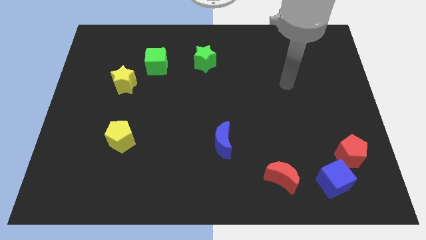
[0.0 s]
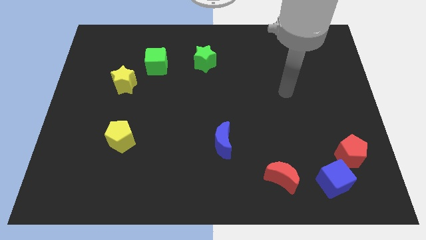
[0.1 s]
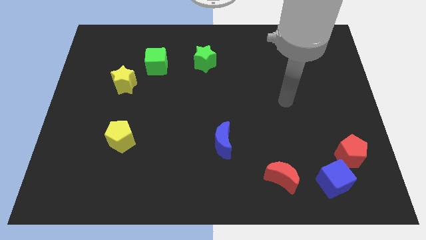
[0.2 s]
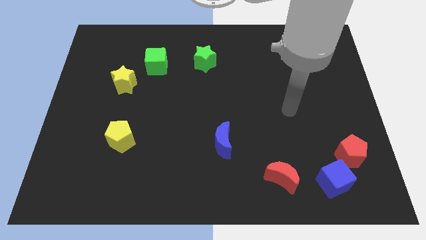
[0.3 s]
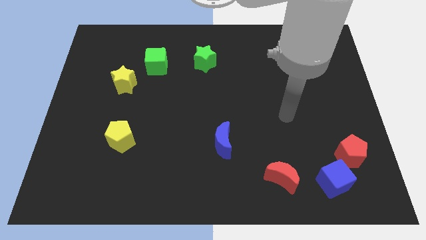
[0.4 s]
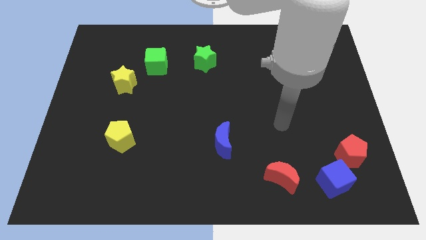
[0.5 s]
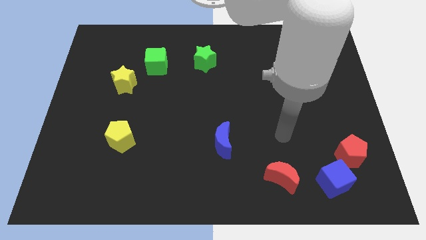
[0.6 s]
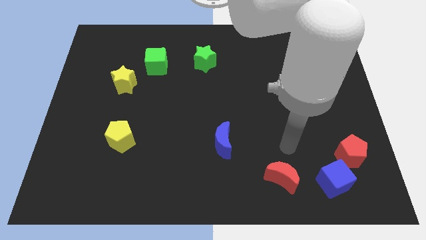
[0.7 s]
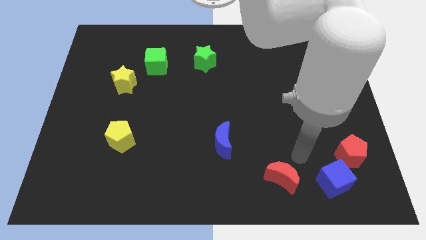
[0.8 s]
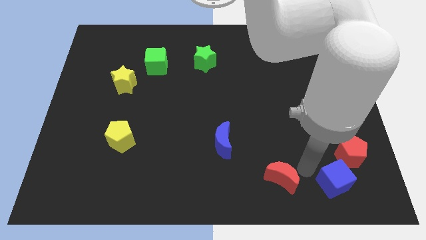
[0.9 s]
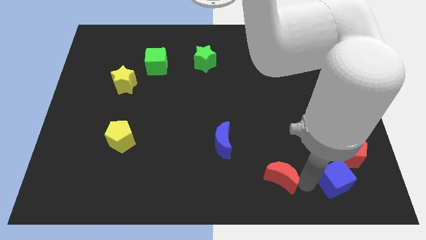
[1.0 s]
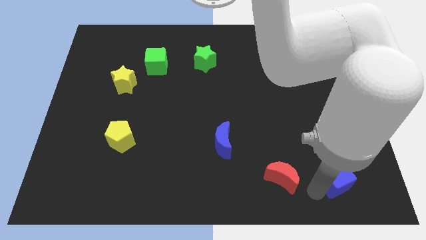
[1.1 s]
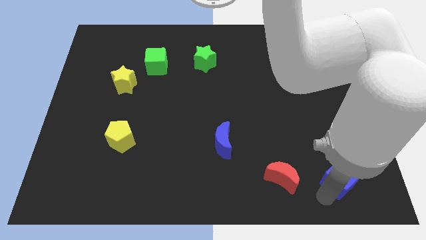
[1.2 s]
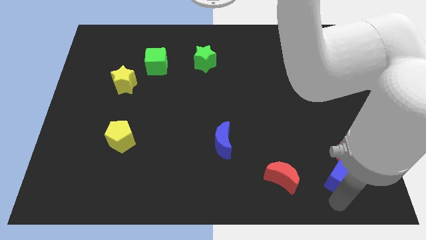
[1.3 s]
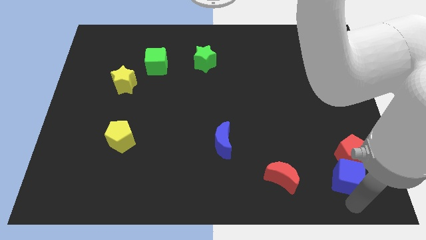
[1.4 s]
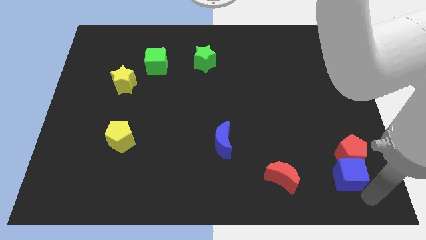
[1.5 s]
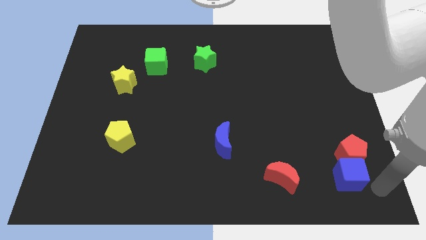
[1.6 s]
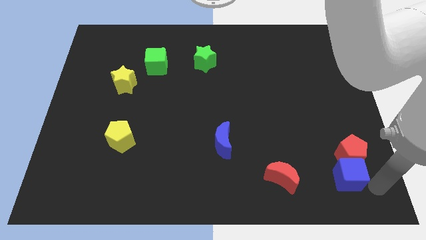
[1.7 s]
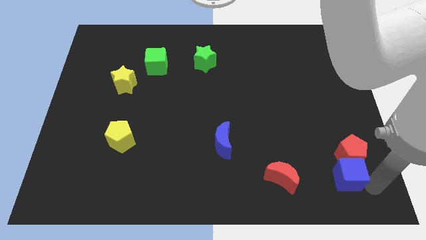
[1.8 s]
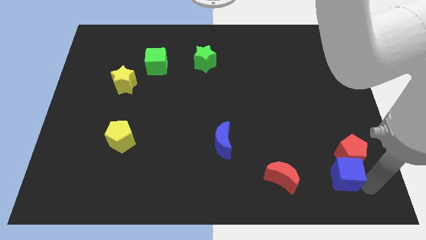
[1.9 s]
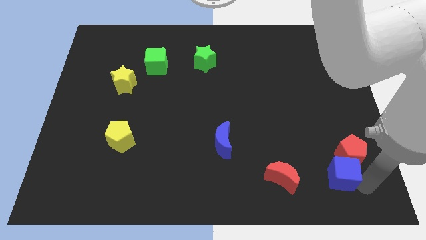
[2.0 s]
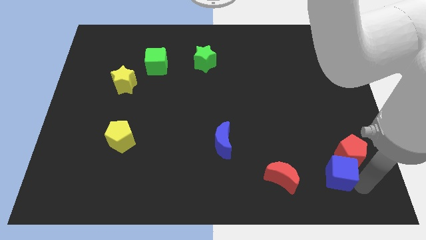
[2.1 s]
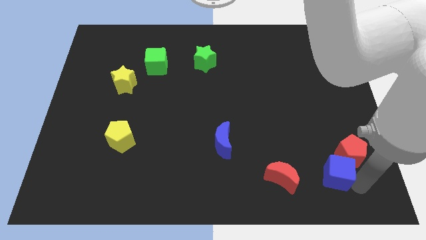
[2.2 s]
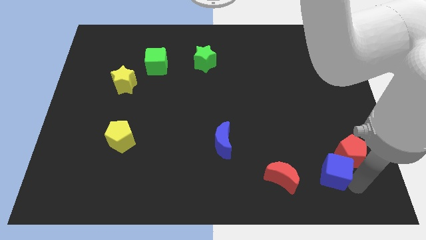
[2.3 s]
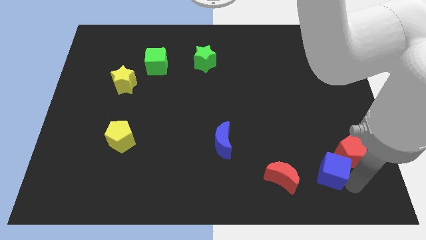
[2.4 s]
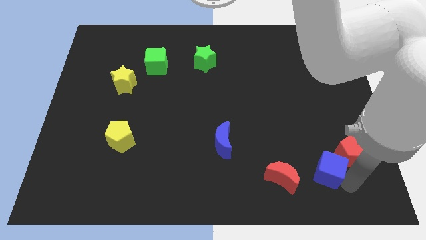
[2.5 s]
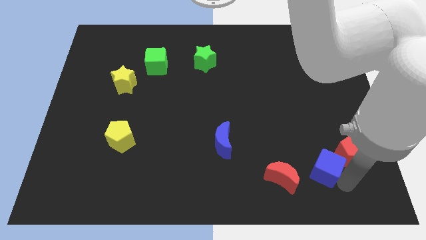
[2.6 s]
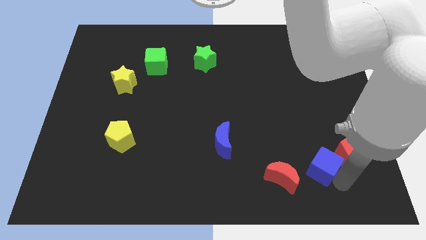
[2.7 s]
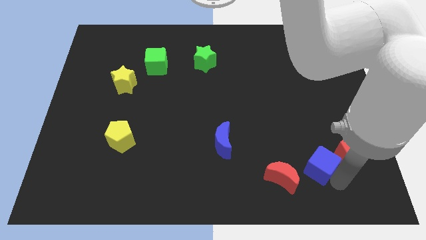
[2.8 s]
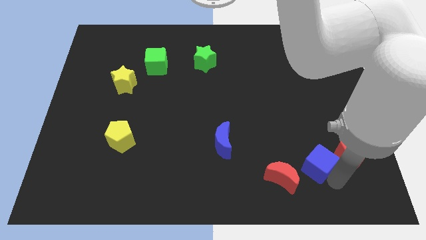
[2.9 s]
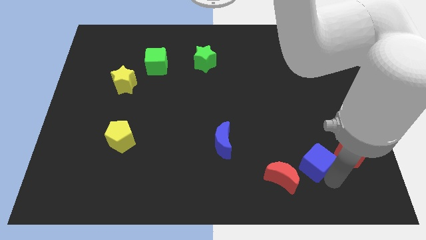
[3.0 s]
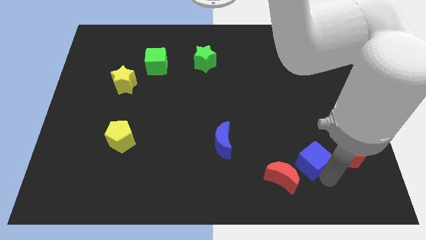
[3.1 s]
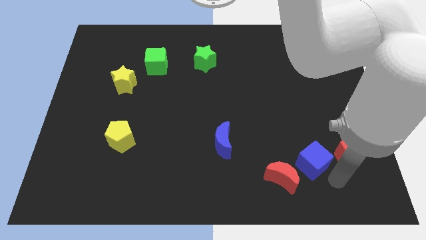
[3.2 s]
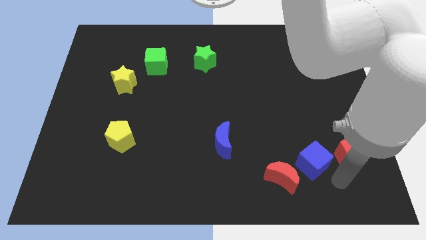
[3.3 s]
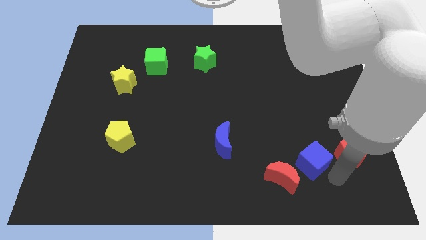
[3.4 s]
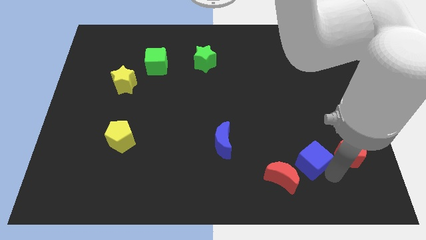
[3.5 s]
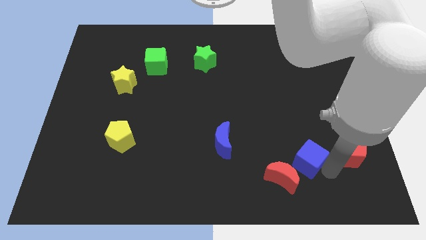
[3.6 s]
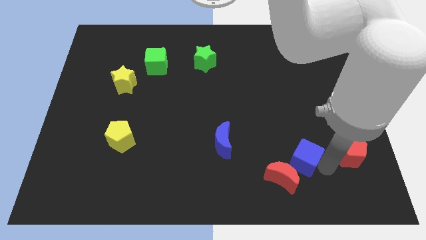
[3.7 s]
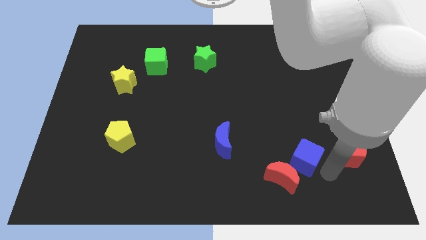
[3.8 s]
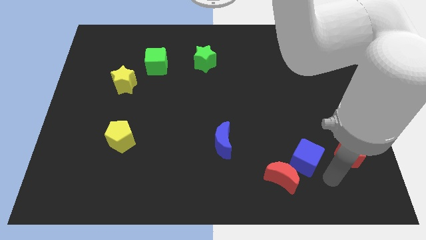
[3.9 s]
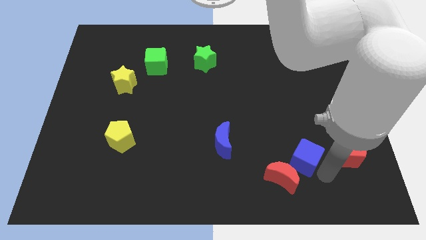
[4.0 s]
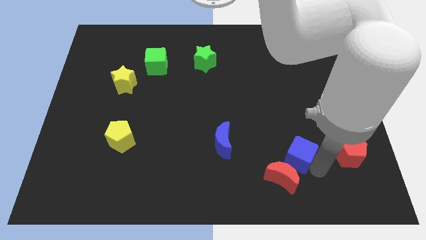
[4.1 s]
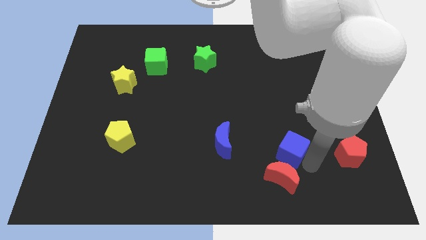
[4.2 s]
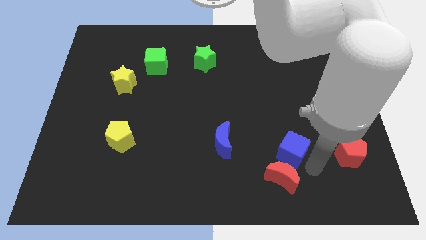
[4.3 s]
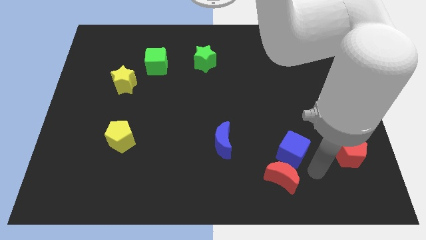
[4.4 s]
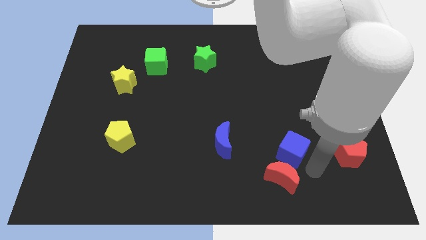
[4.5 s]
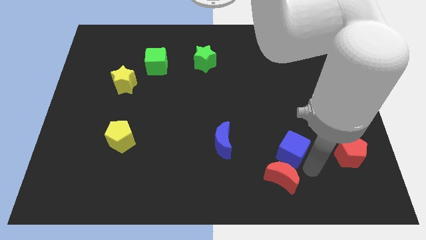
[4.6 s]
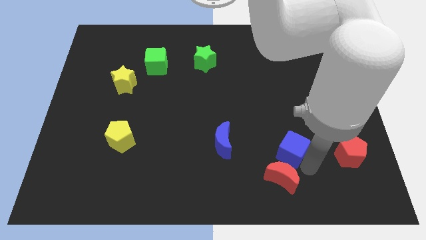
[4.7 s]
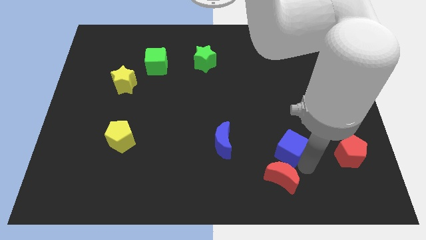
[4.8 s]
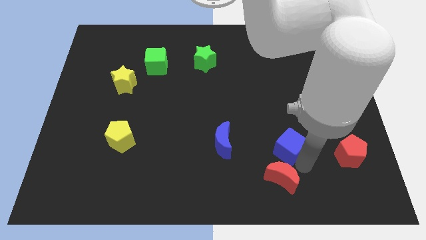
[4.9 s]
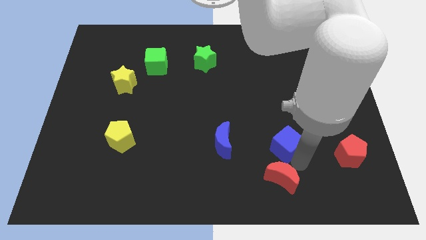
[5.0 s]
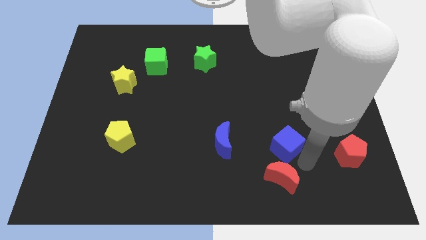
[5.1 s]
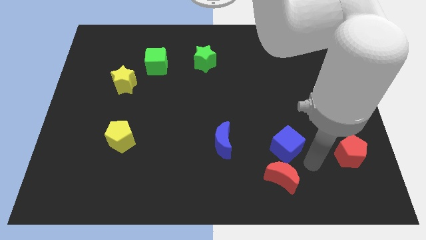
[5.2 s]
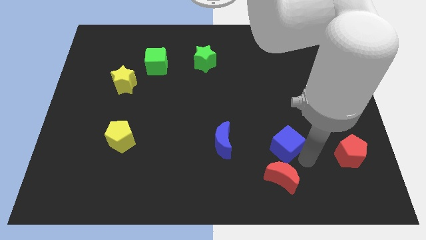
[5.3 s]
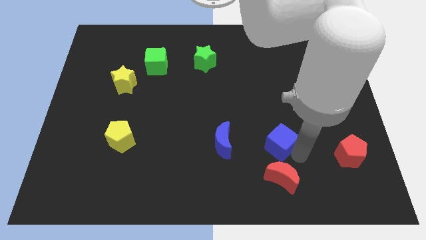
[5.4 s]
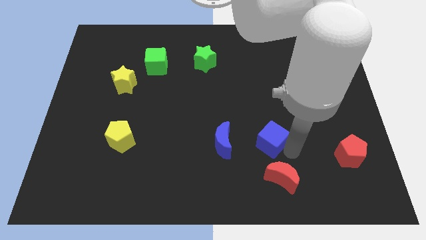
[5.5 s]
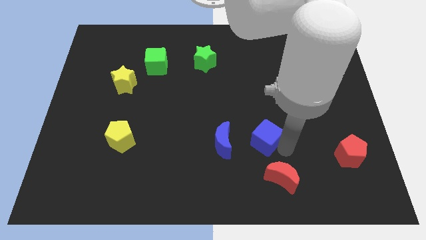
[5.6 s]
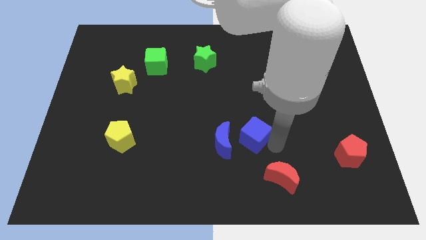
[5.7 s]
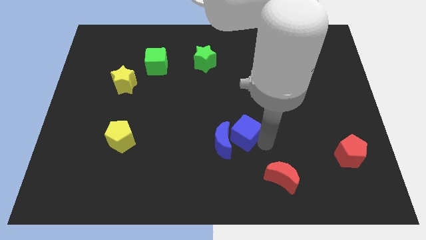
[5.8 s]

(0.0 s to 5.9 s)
slide the blue cube to the center of the board

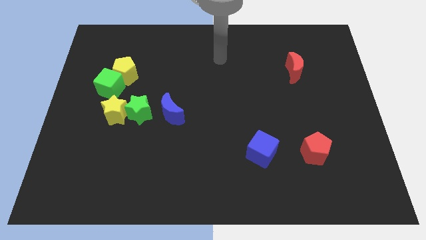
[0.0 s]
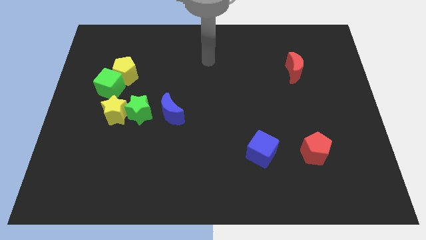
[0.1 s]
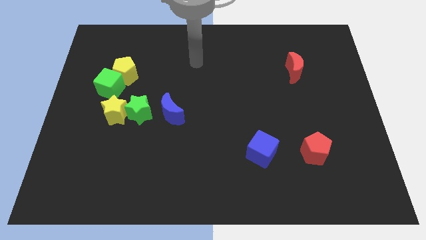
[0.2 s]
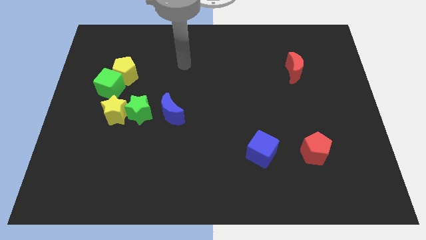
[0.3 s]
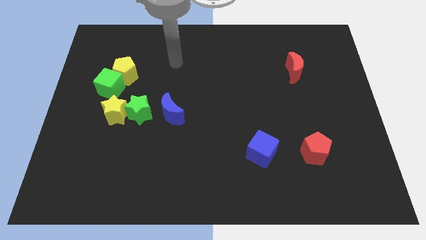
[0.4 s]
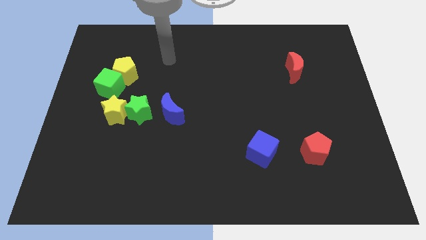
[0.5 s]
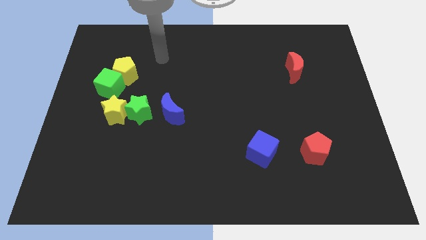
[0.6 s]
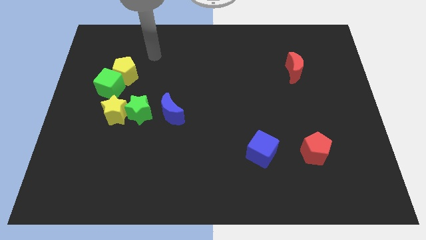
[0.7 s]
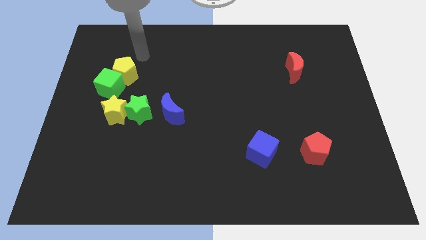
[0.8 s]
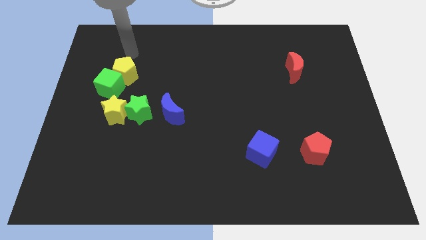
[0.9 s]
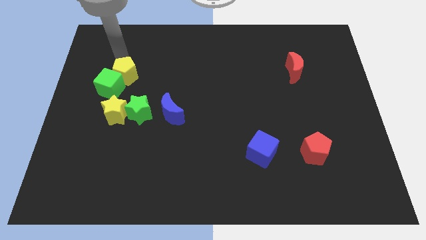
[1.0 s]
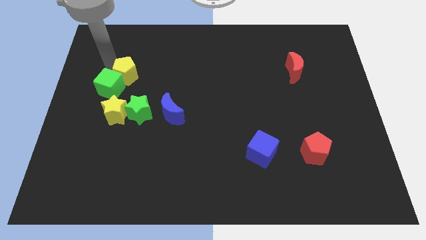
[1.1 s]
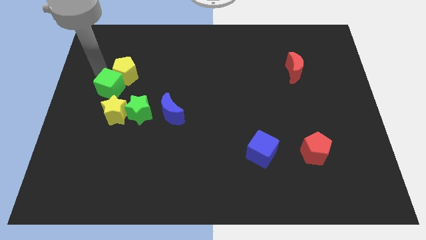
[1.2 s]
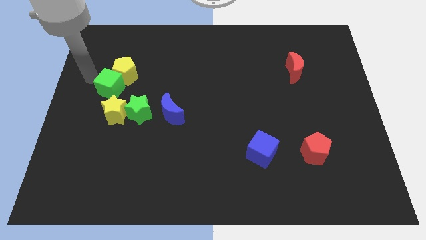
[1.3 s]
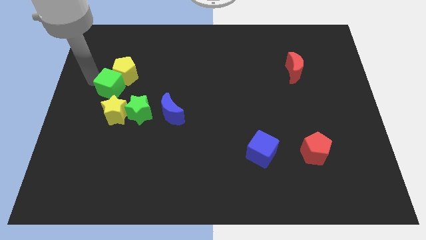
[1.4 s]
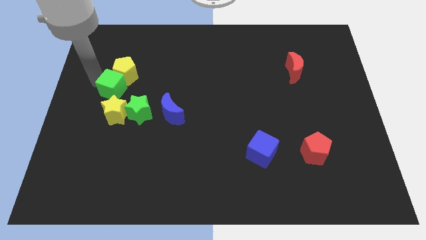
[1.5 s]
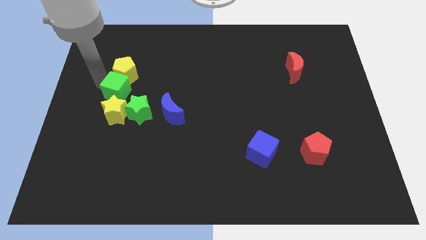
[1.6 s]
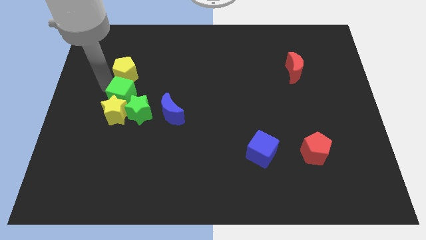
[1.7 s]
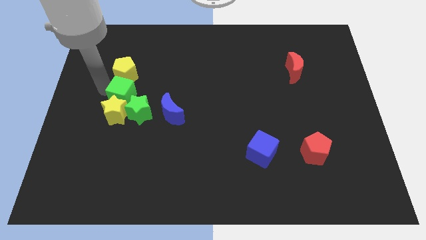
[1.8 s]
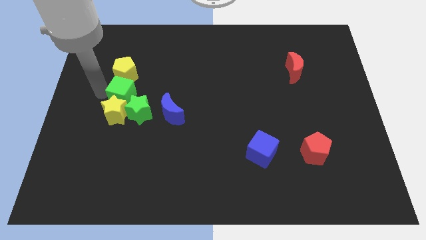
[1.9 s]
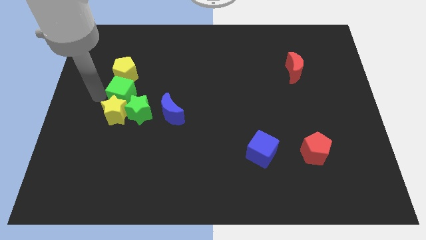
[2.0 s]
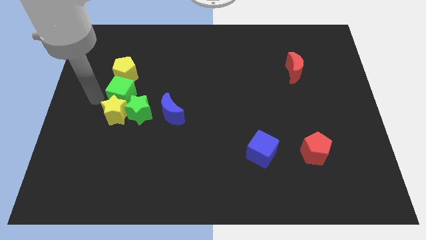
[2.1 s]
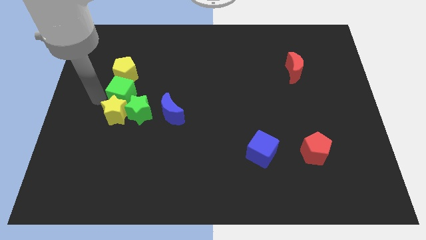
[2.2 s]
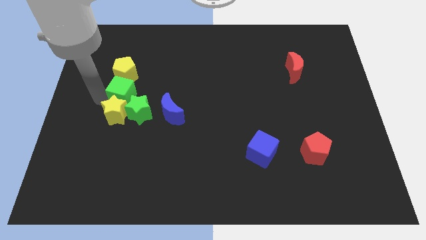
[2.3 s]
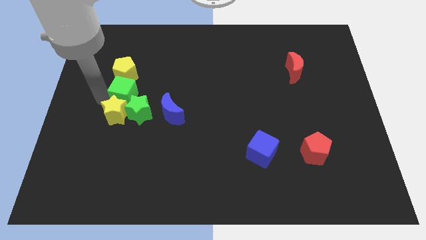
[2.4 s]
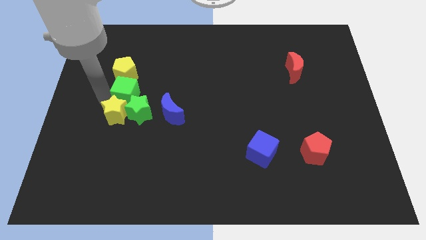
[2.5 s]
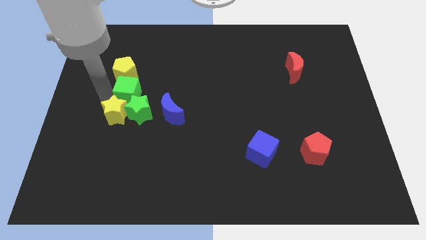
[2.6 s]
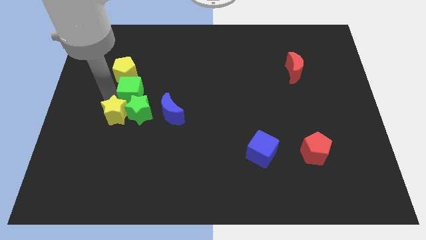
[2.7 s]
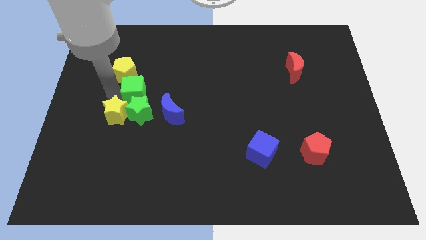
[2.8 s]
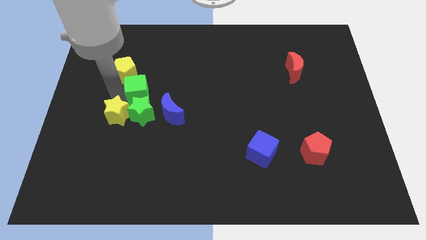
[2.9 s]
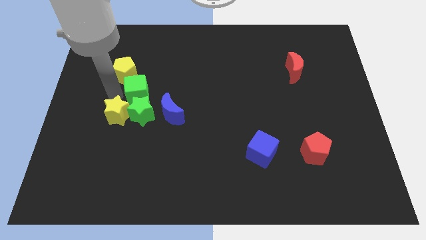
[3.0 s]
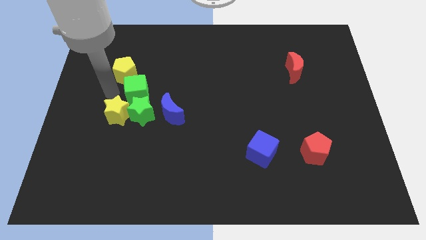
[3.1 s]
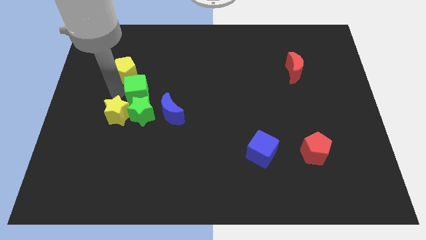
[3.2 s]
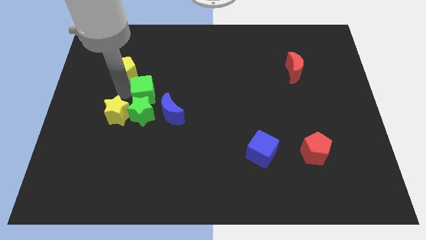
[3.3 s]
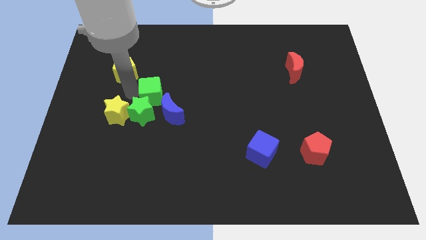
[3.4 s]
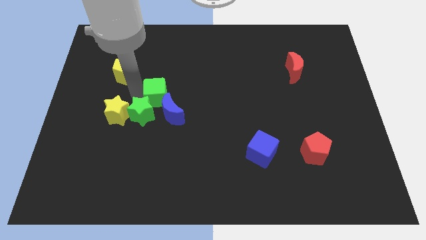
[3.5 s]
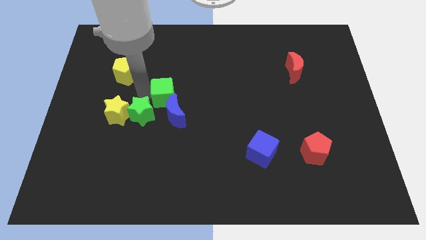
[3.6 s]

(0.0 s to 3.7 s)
move the green cube to the center of the board
